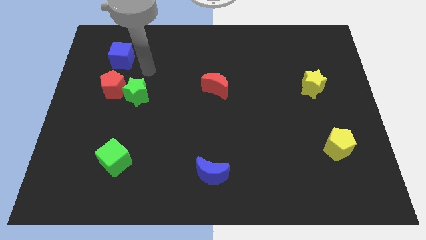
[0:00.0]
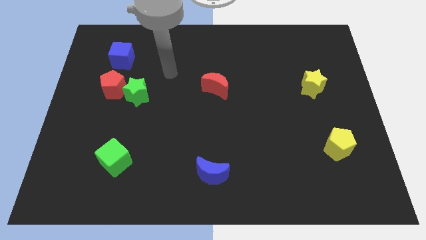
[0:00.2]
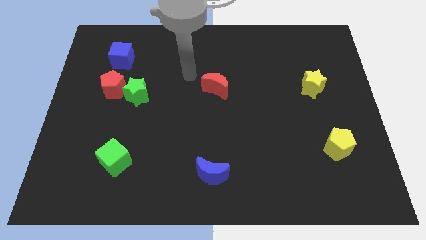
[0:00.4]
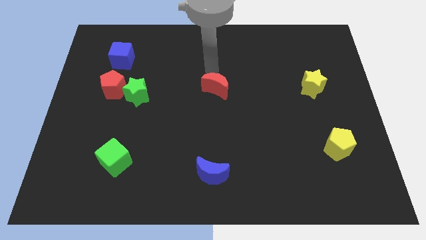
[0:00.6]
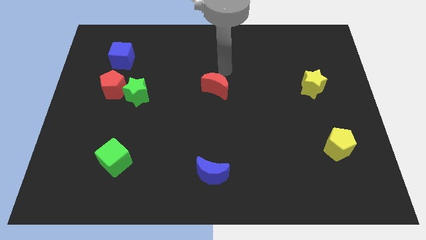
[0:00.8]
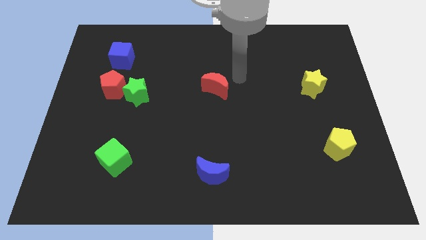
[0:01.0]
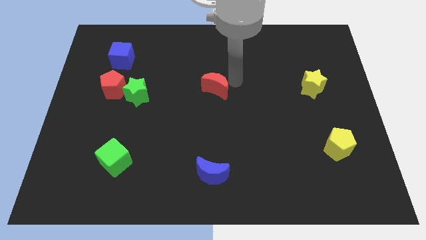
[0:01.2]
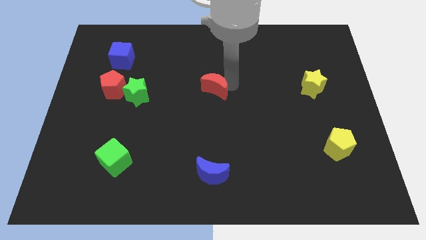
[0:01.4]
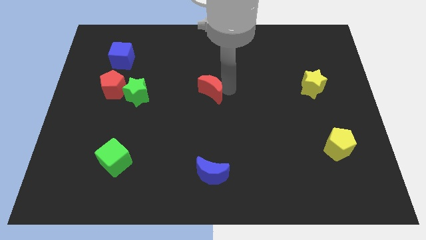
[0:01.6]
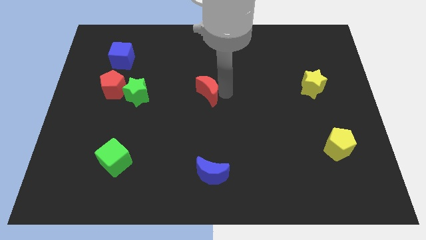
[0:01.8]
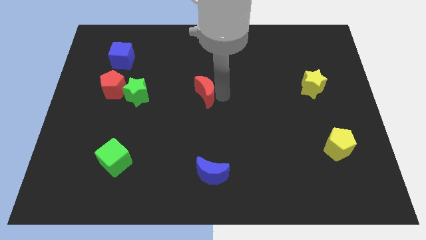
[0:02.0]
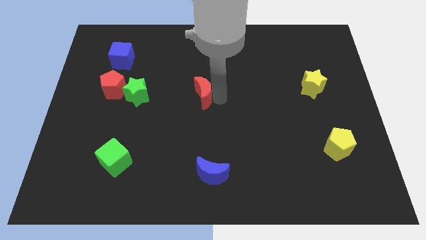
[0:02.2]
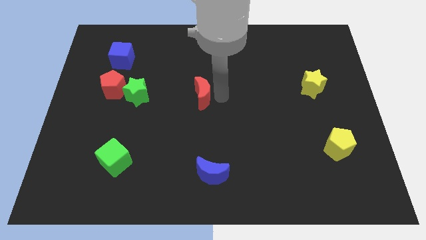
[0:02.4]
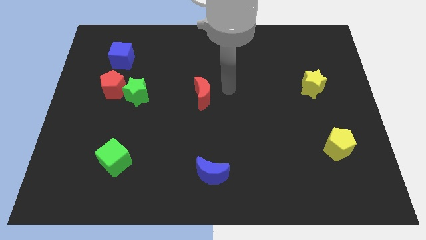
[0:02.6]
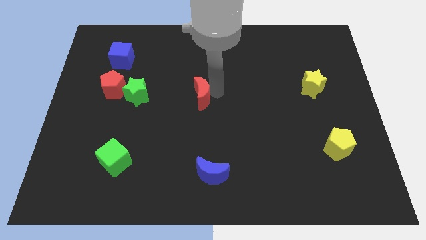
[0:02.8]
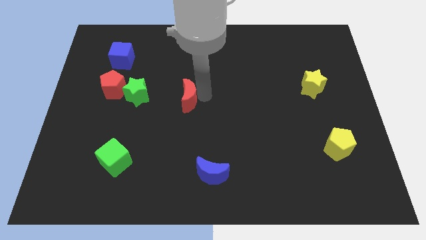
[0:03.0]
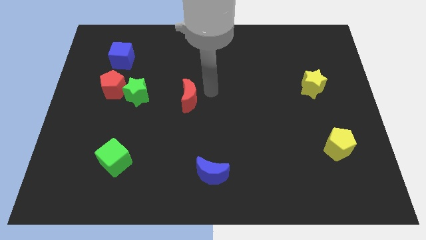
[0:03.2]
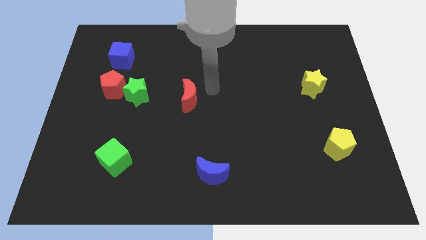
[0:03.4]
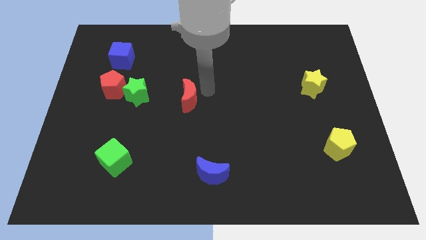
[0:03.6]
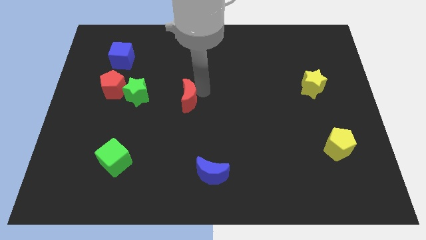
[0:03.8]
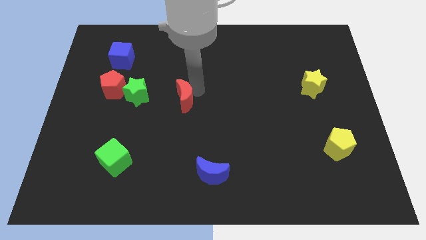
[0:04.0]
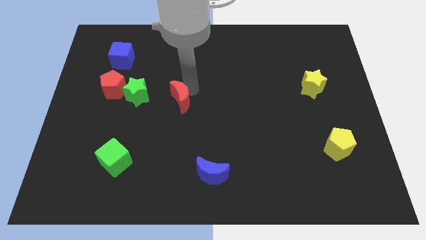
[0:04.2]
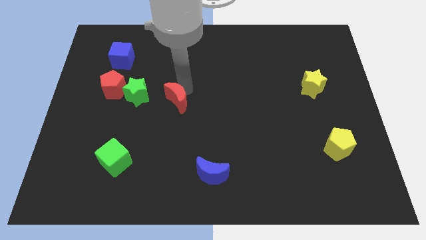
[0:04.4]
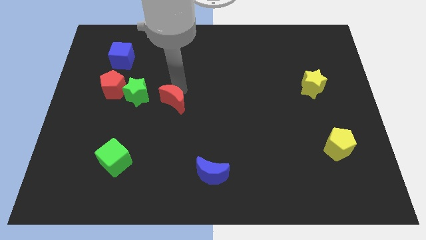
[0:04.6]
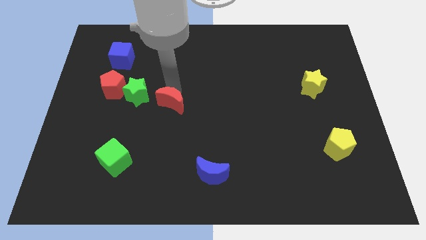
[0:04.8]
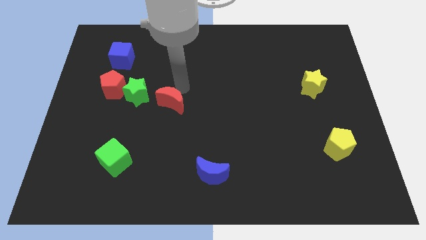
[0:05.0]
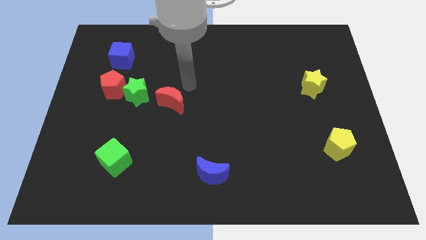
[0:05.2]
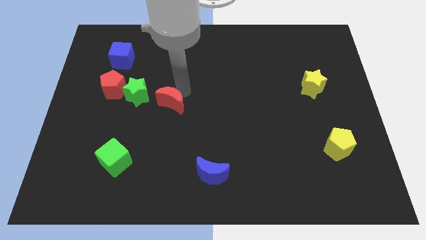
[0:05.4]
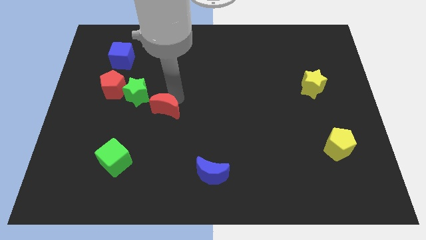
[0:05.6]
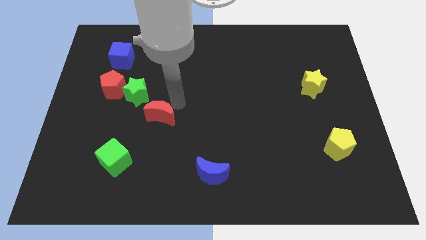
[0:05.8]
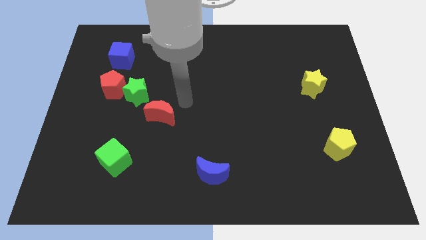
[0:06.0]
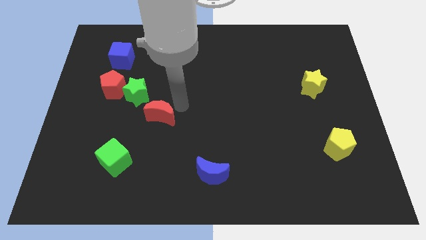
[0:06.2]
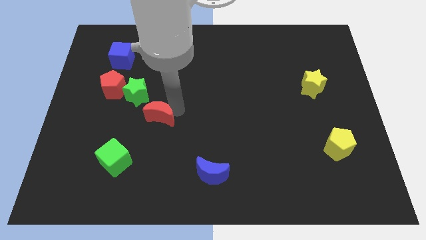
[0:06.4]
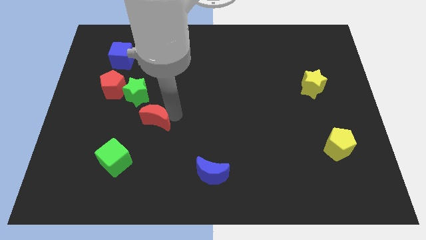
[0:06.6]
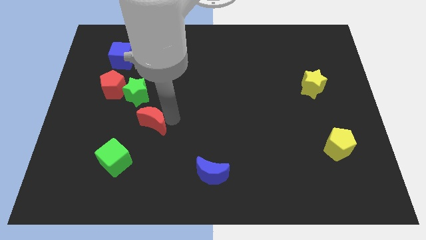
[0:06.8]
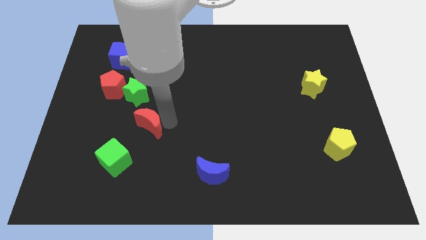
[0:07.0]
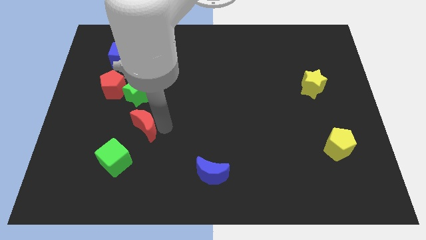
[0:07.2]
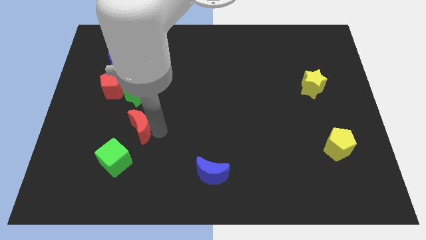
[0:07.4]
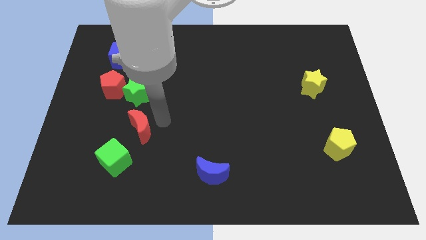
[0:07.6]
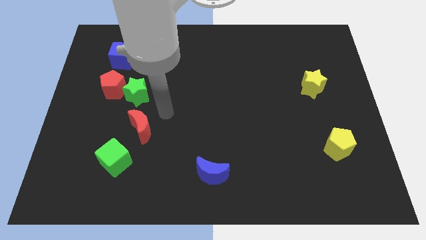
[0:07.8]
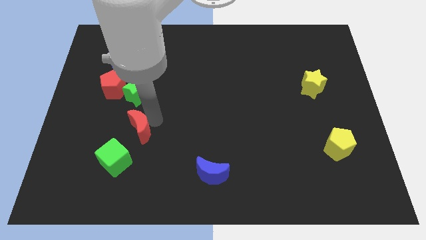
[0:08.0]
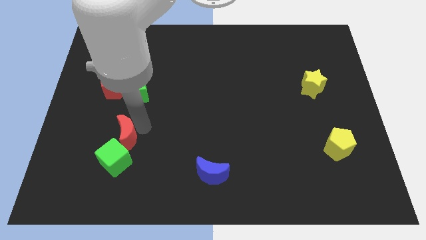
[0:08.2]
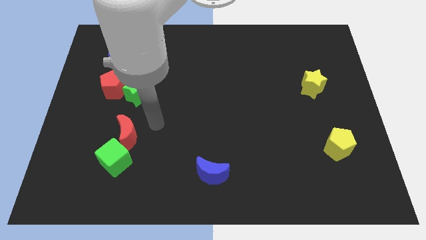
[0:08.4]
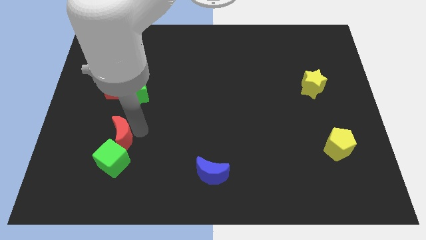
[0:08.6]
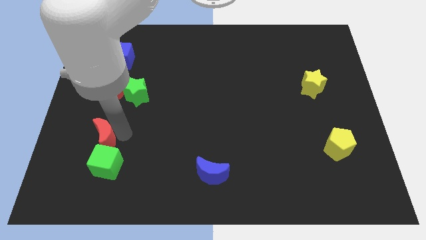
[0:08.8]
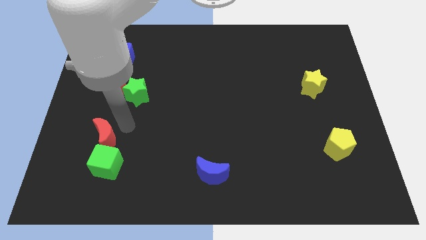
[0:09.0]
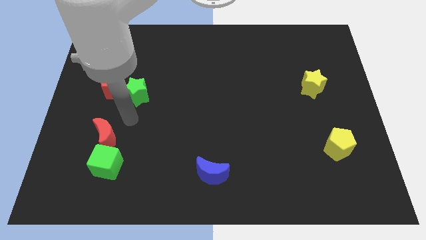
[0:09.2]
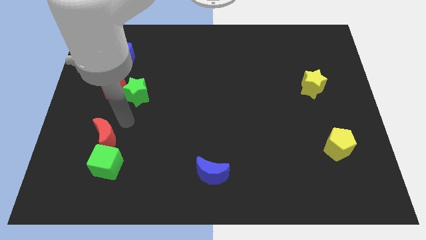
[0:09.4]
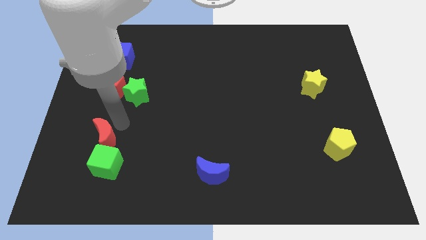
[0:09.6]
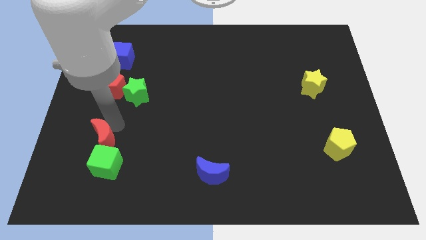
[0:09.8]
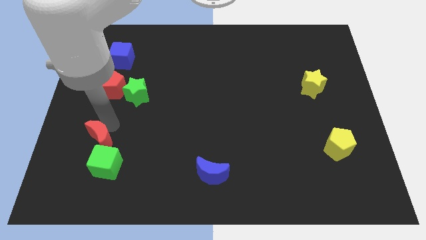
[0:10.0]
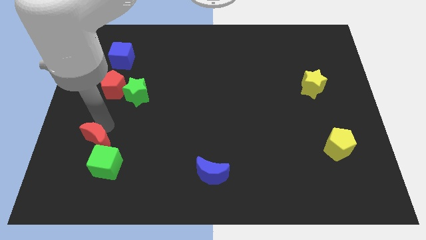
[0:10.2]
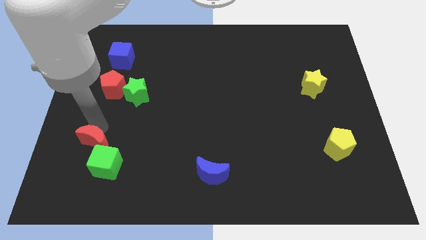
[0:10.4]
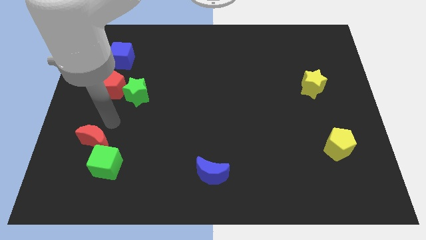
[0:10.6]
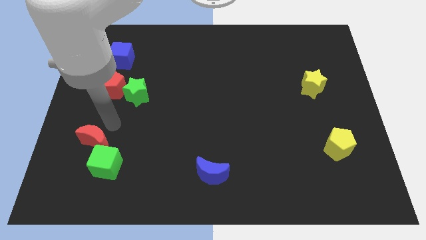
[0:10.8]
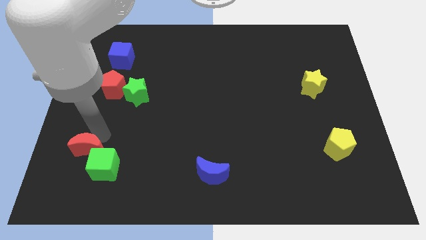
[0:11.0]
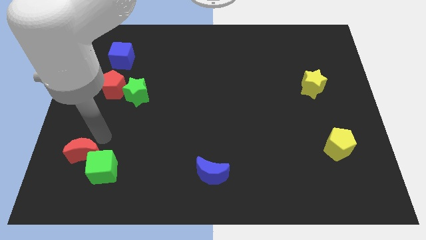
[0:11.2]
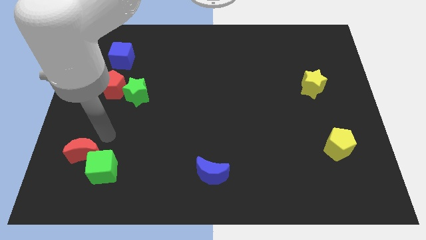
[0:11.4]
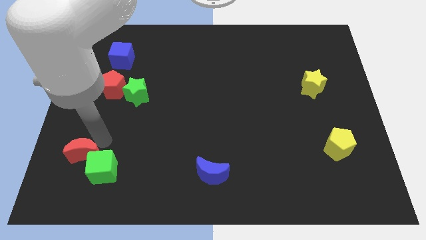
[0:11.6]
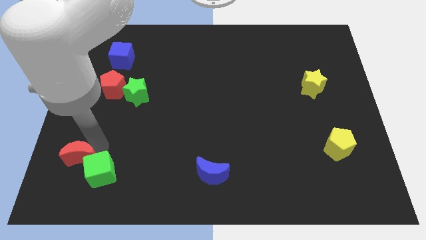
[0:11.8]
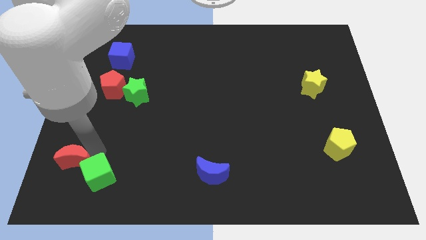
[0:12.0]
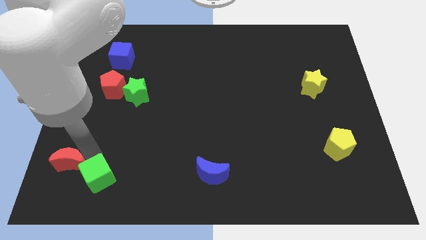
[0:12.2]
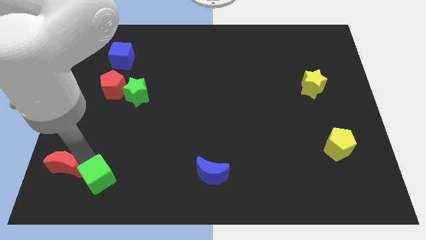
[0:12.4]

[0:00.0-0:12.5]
move the red moon to the lower left corner
